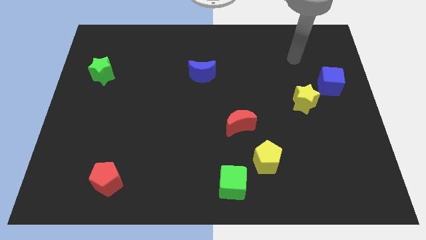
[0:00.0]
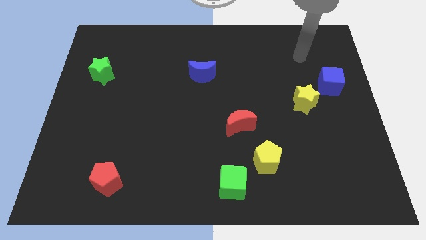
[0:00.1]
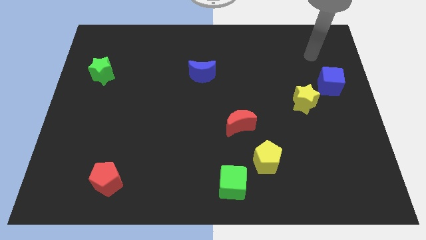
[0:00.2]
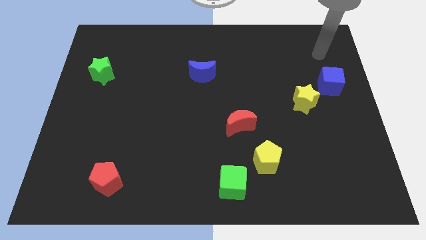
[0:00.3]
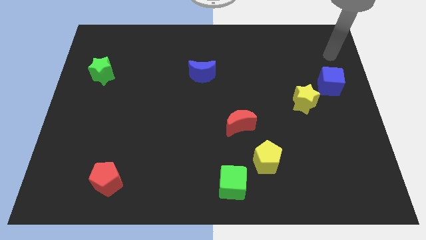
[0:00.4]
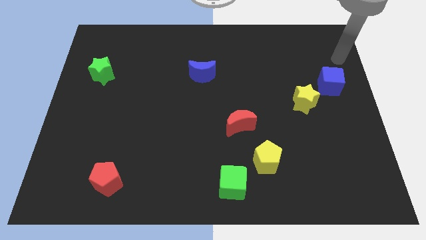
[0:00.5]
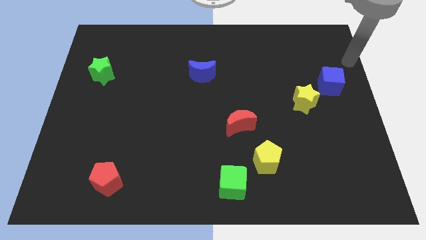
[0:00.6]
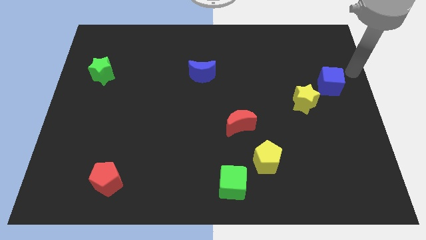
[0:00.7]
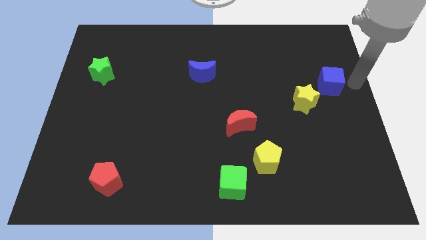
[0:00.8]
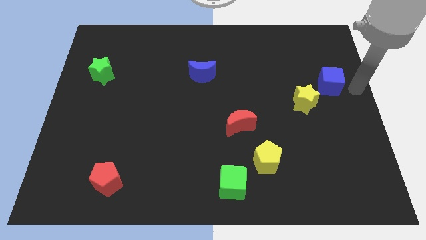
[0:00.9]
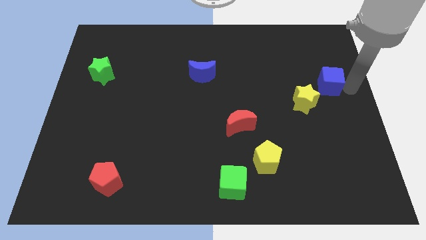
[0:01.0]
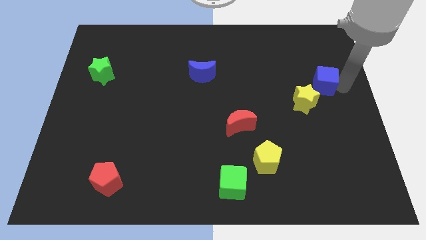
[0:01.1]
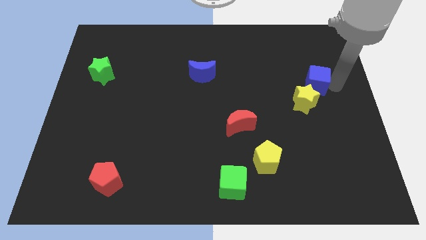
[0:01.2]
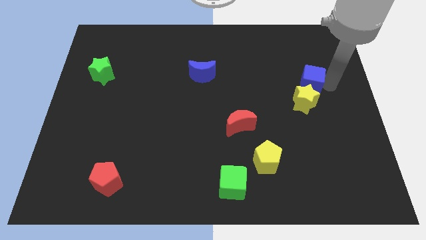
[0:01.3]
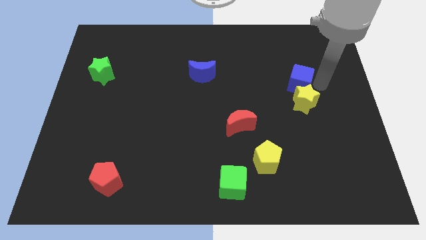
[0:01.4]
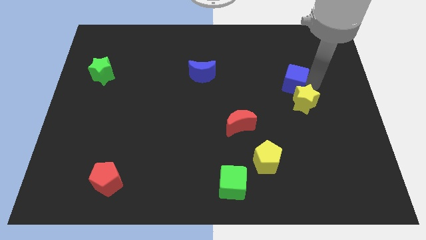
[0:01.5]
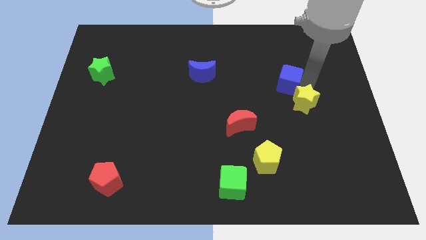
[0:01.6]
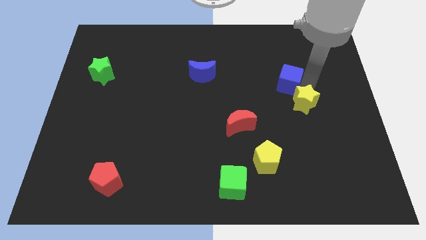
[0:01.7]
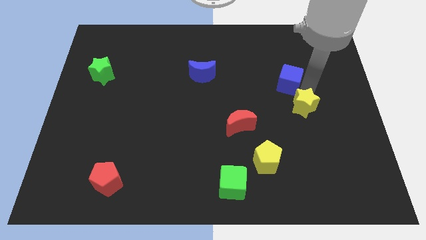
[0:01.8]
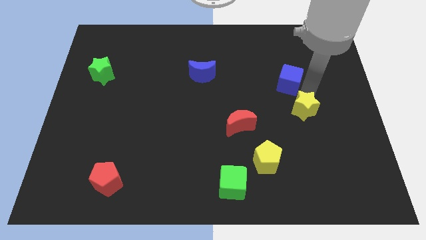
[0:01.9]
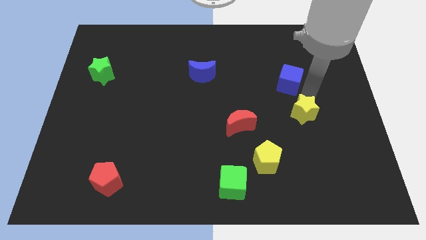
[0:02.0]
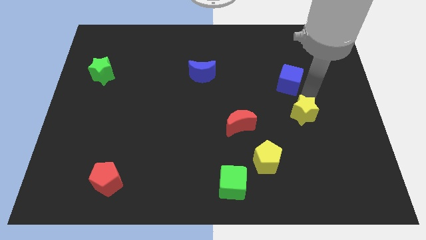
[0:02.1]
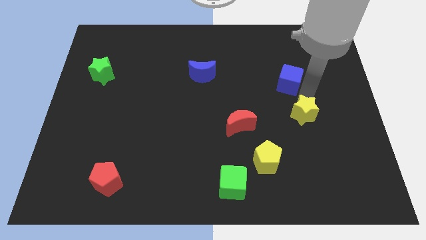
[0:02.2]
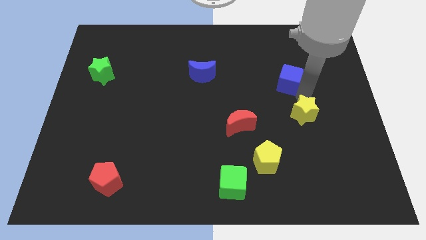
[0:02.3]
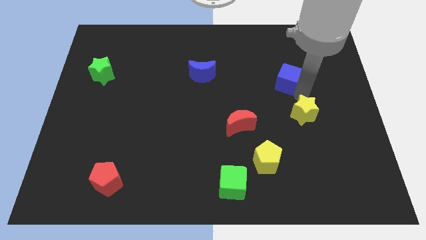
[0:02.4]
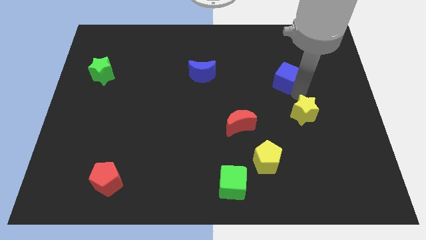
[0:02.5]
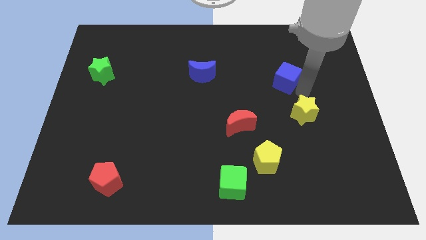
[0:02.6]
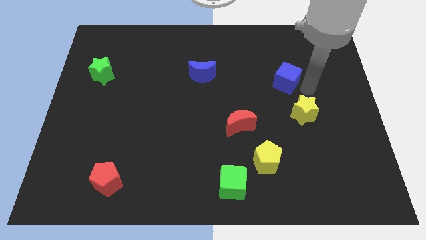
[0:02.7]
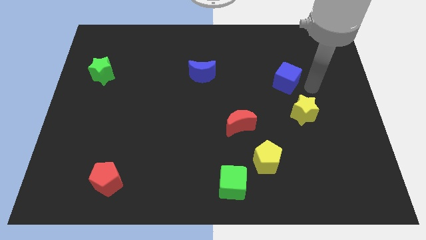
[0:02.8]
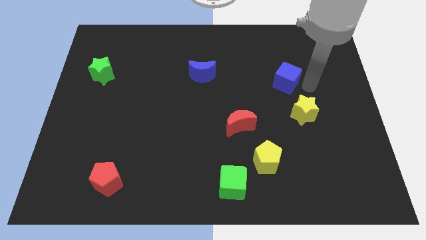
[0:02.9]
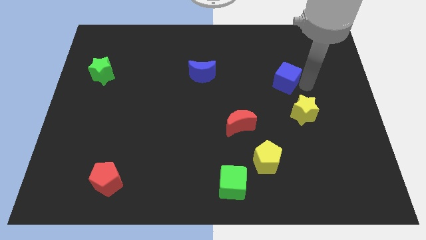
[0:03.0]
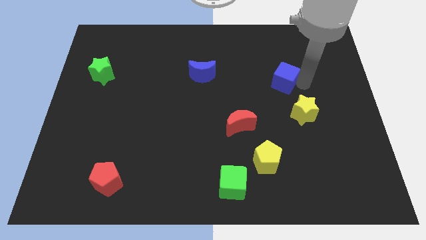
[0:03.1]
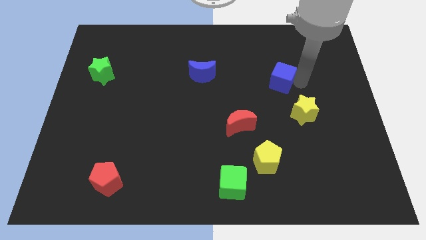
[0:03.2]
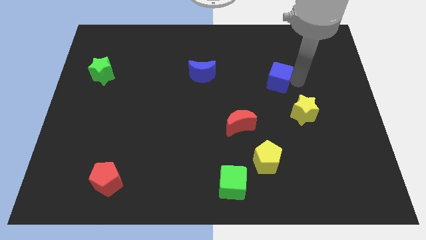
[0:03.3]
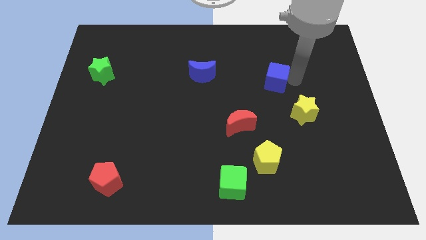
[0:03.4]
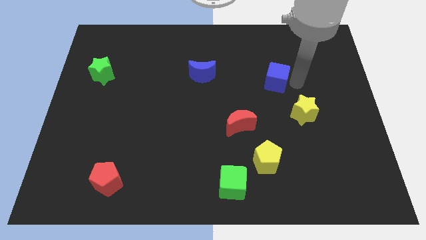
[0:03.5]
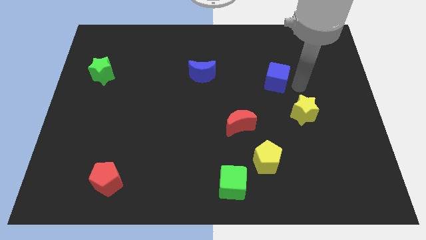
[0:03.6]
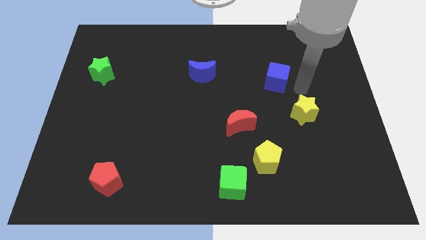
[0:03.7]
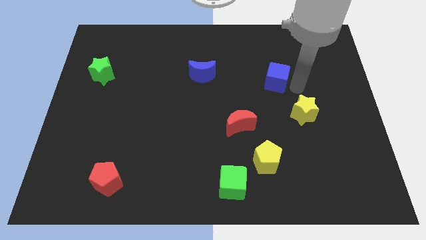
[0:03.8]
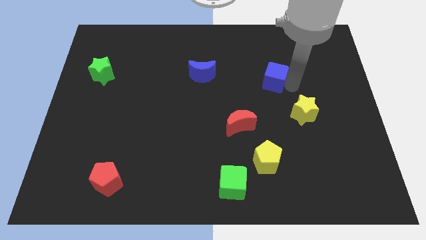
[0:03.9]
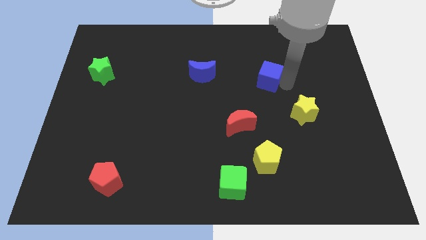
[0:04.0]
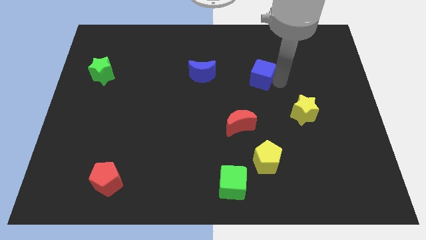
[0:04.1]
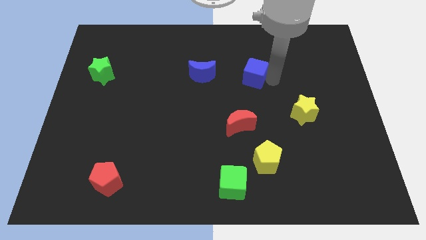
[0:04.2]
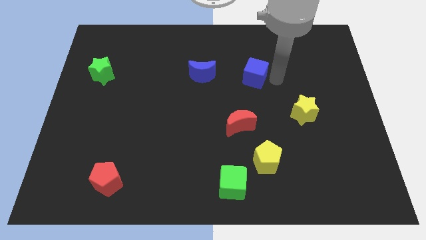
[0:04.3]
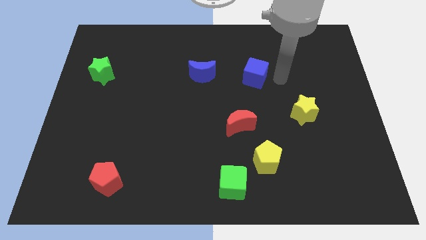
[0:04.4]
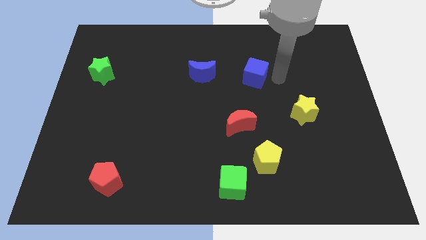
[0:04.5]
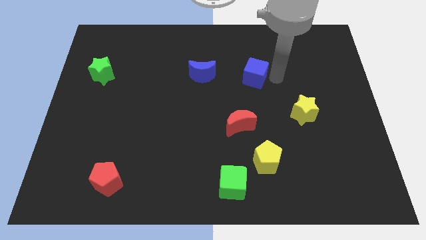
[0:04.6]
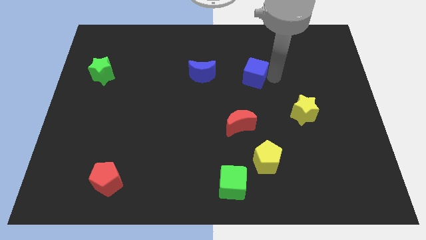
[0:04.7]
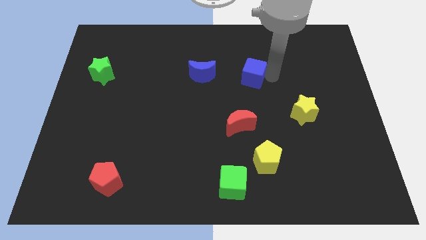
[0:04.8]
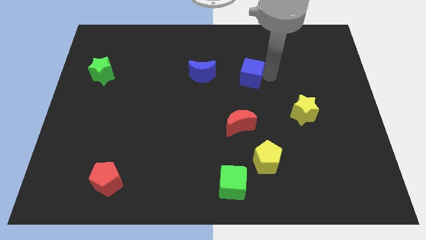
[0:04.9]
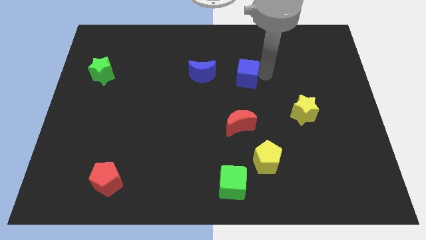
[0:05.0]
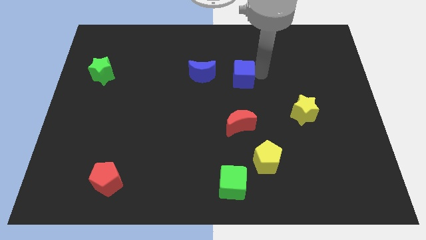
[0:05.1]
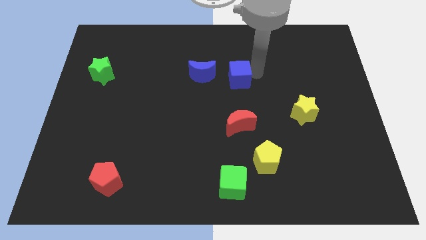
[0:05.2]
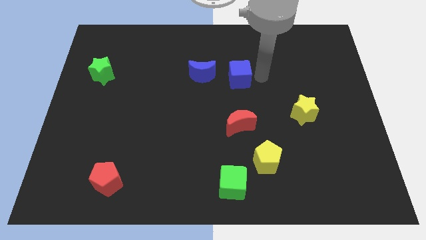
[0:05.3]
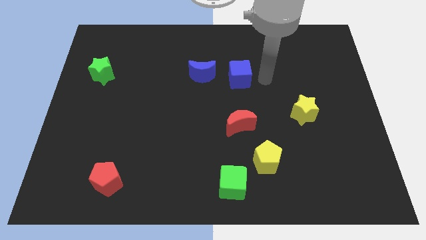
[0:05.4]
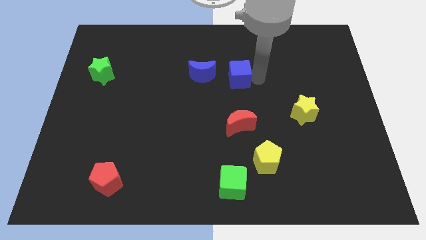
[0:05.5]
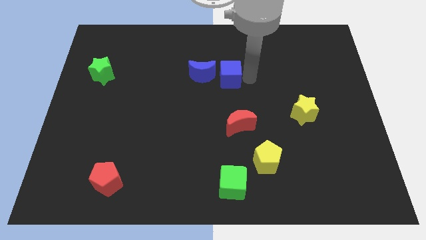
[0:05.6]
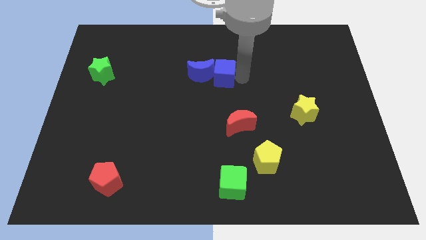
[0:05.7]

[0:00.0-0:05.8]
push the blue cube towards the blue moon

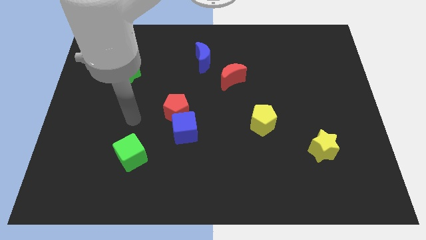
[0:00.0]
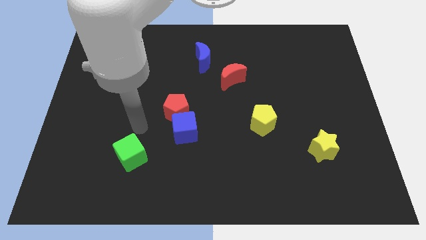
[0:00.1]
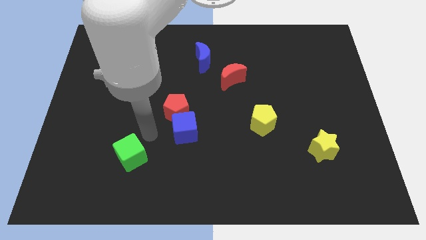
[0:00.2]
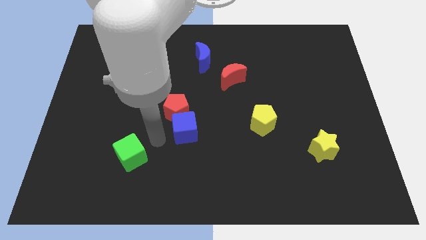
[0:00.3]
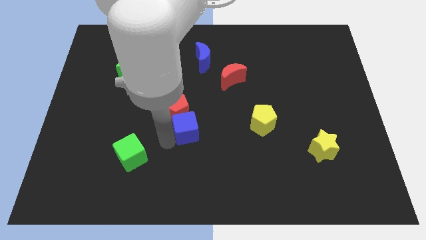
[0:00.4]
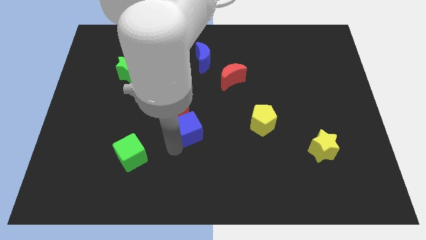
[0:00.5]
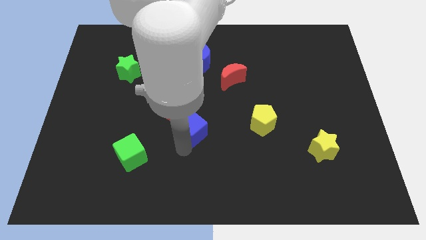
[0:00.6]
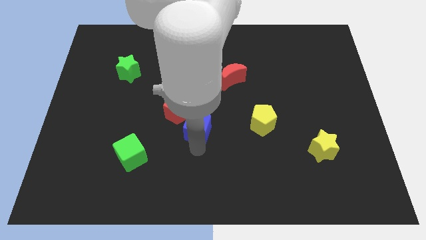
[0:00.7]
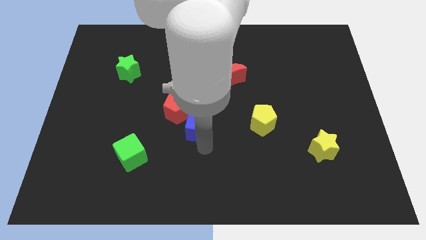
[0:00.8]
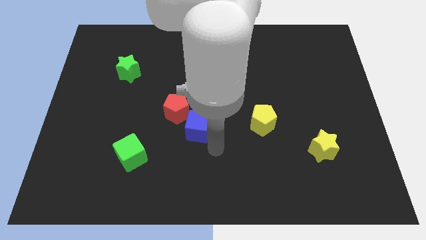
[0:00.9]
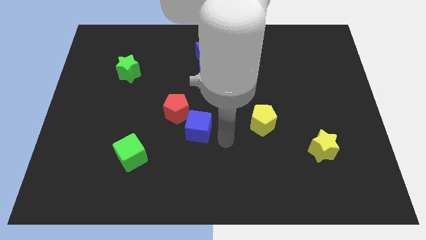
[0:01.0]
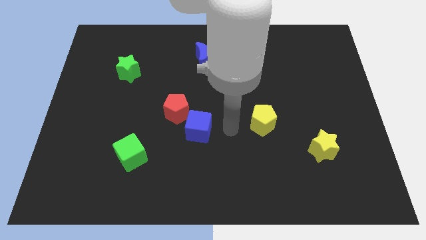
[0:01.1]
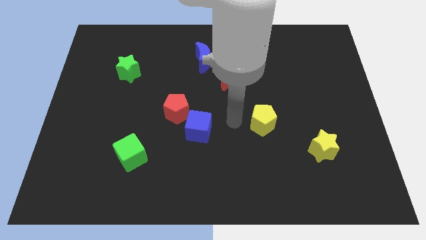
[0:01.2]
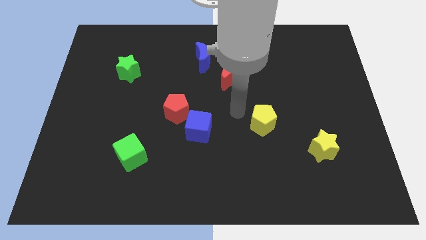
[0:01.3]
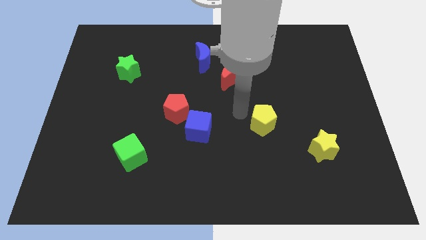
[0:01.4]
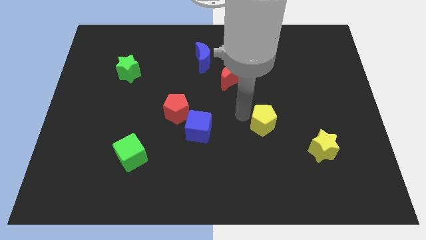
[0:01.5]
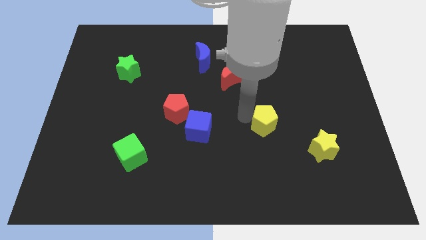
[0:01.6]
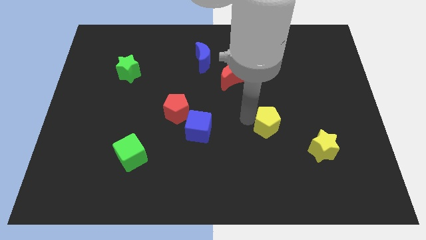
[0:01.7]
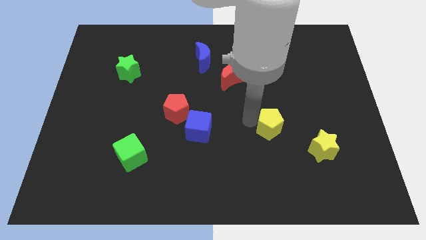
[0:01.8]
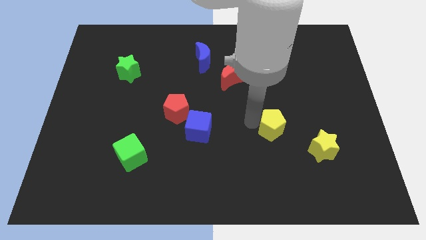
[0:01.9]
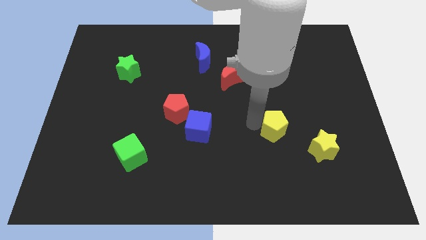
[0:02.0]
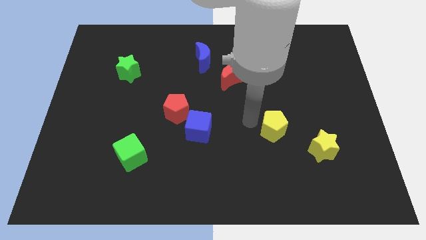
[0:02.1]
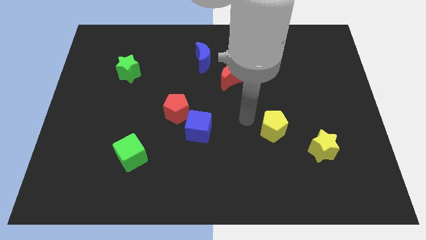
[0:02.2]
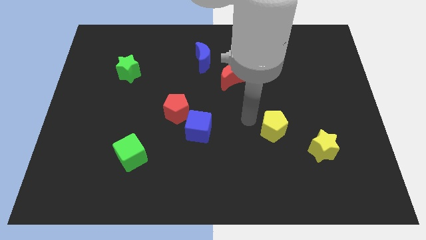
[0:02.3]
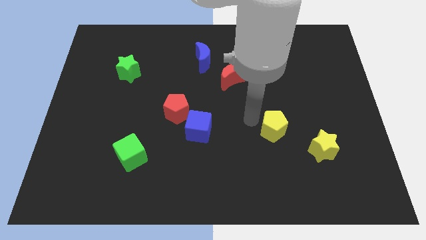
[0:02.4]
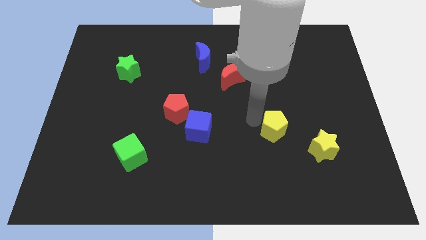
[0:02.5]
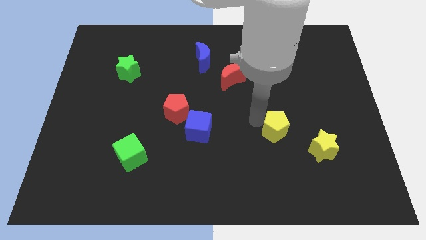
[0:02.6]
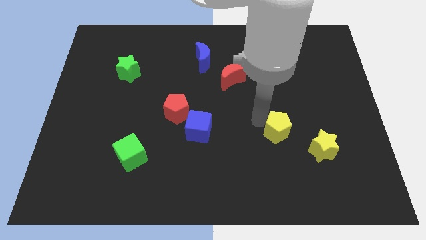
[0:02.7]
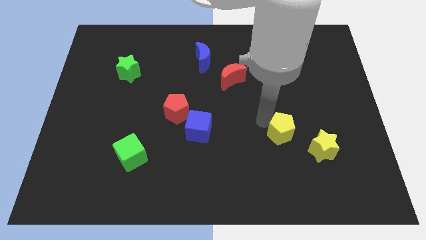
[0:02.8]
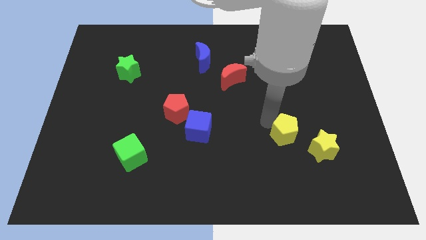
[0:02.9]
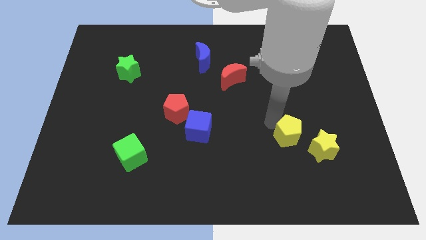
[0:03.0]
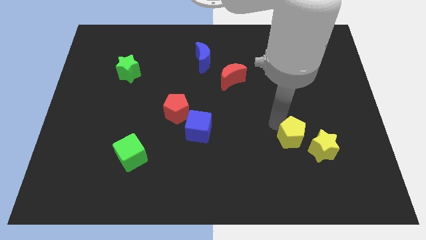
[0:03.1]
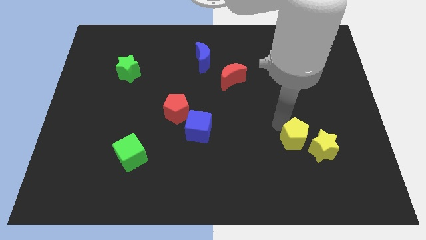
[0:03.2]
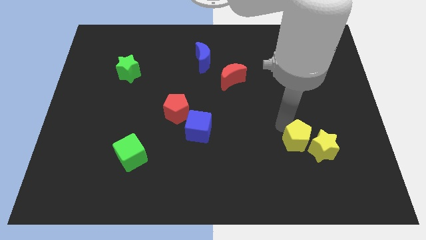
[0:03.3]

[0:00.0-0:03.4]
push the yellow pentagon close to the yellow star
